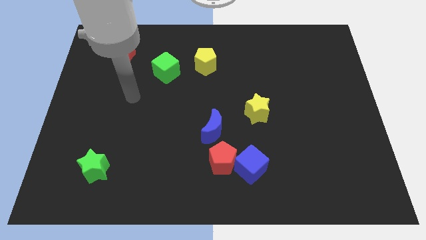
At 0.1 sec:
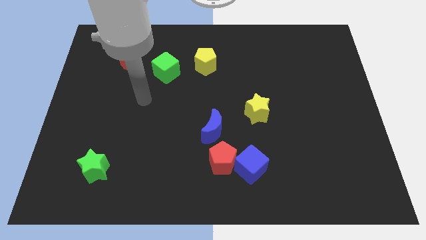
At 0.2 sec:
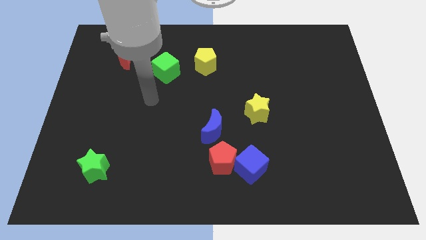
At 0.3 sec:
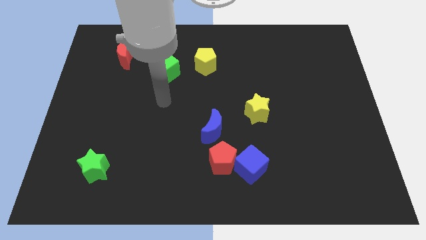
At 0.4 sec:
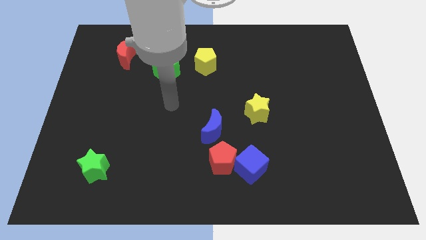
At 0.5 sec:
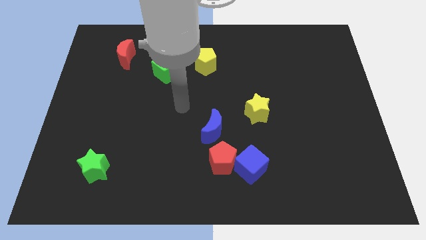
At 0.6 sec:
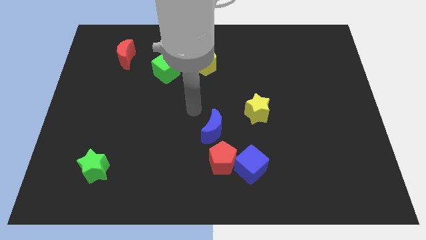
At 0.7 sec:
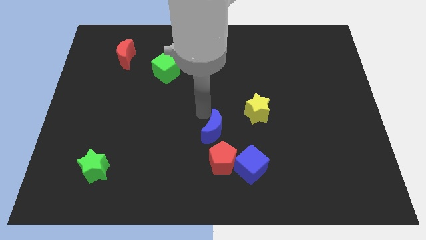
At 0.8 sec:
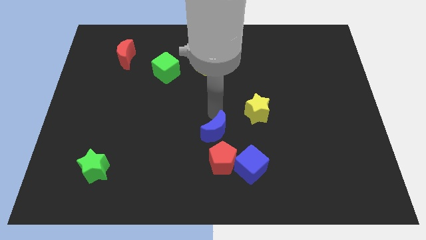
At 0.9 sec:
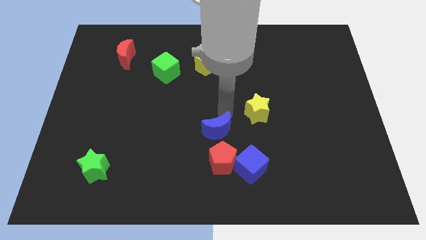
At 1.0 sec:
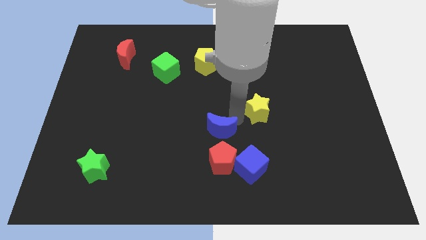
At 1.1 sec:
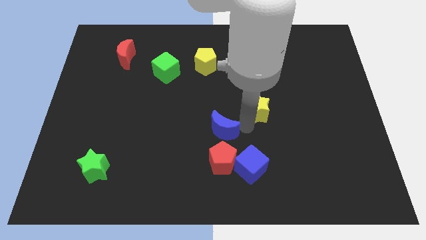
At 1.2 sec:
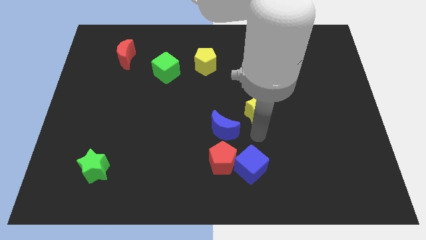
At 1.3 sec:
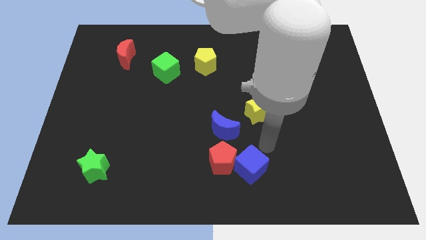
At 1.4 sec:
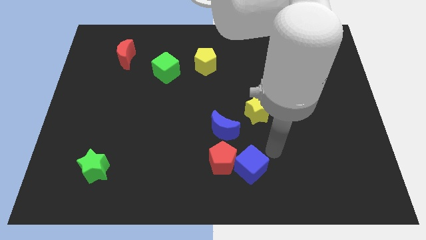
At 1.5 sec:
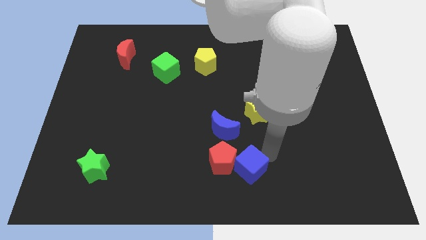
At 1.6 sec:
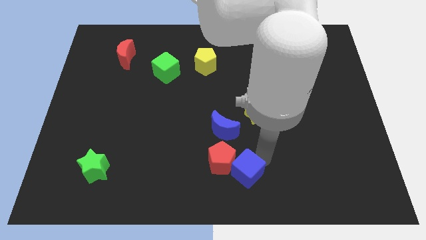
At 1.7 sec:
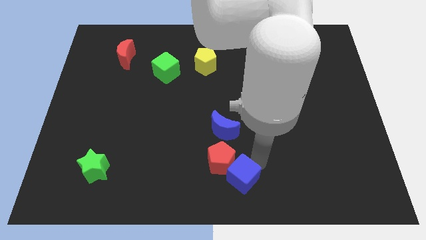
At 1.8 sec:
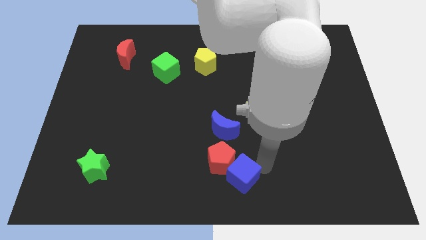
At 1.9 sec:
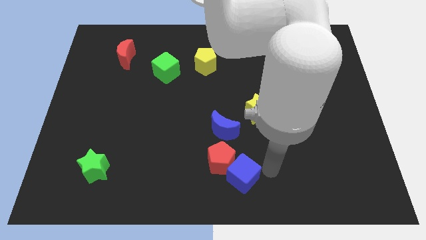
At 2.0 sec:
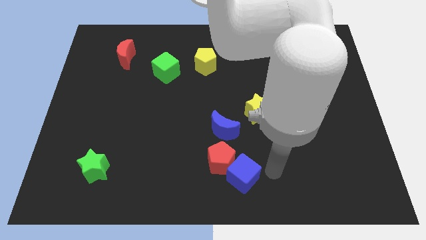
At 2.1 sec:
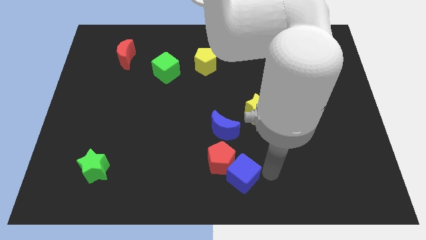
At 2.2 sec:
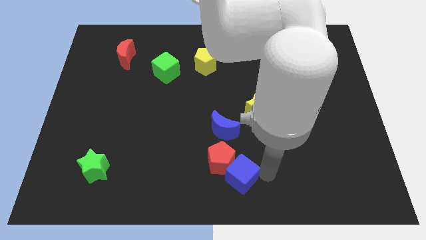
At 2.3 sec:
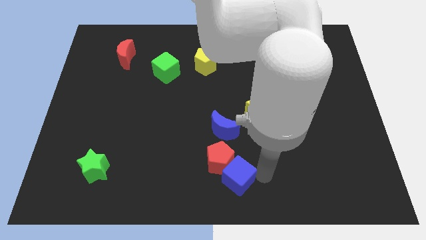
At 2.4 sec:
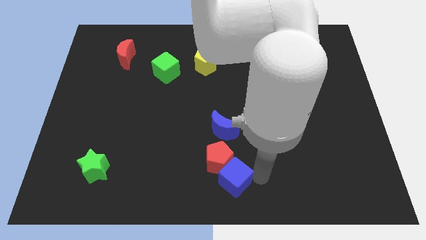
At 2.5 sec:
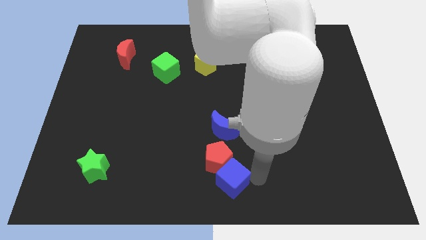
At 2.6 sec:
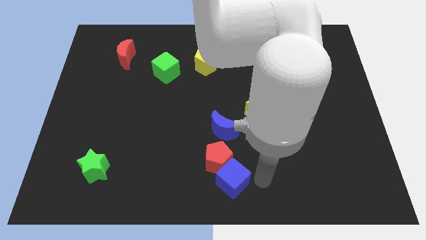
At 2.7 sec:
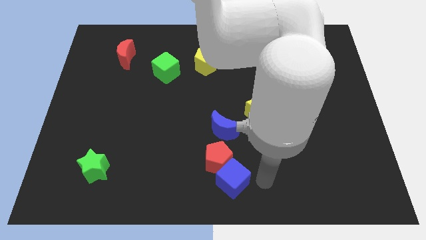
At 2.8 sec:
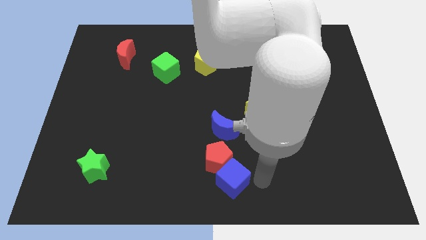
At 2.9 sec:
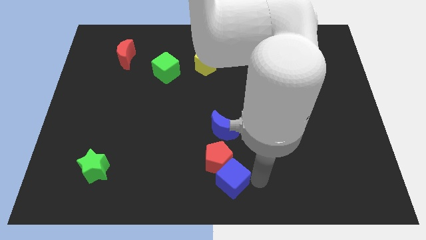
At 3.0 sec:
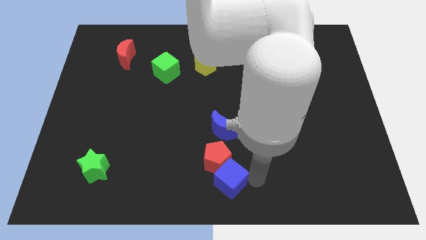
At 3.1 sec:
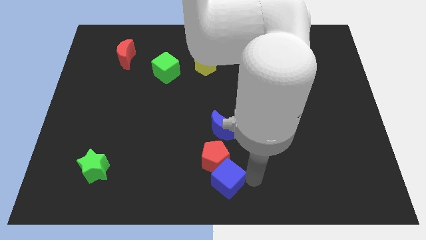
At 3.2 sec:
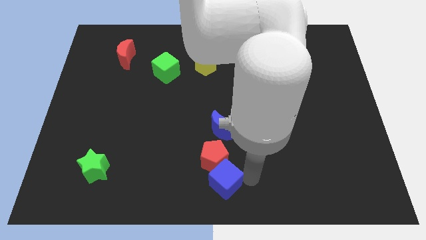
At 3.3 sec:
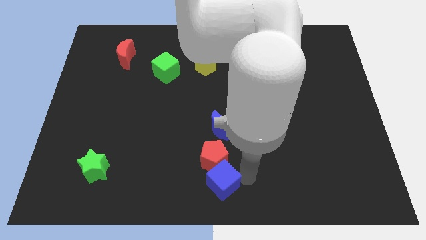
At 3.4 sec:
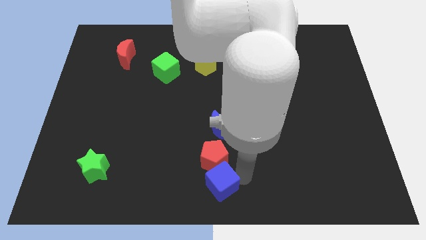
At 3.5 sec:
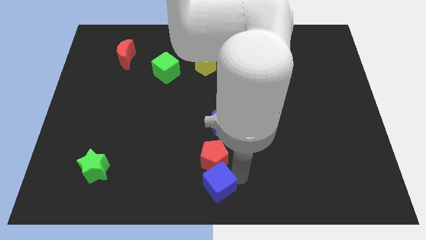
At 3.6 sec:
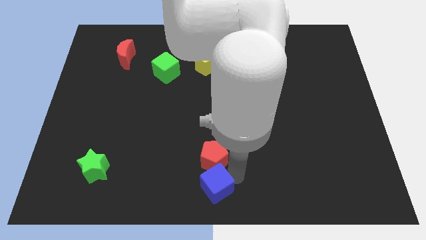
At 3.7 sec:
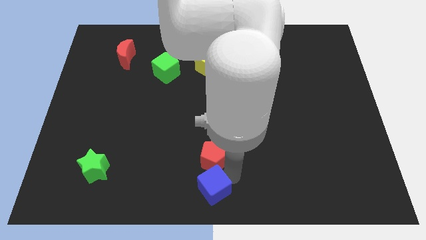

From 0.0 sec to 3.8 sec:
slightly slide the blue cube to the left

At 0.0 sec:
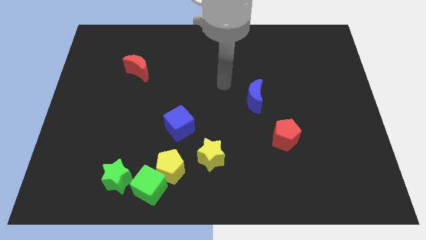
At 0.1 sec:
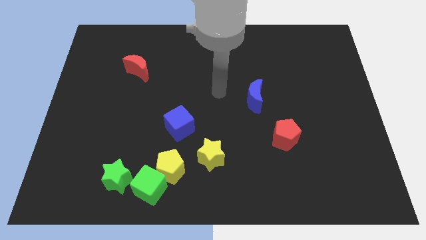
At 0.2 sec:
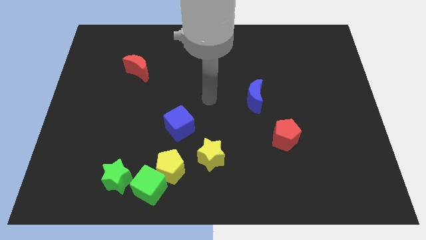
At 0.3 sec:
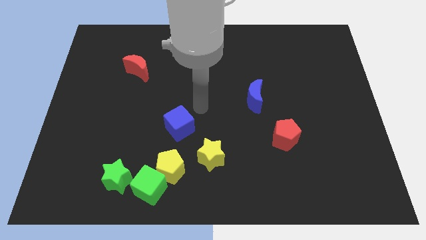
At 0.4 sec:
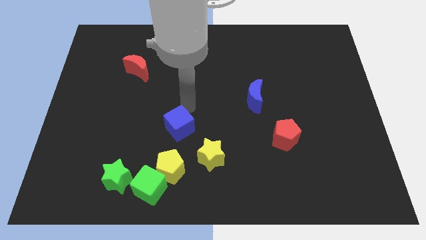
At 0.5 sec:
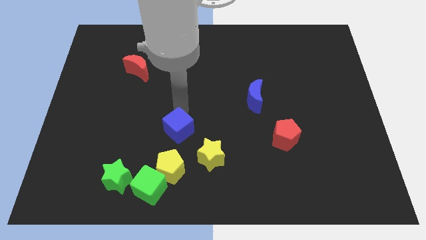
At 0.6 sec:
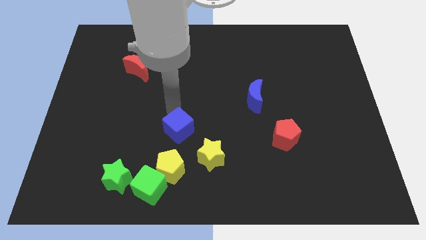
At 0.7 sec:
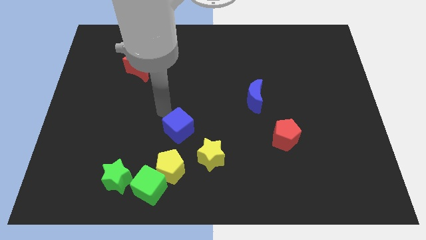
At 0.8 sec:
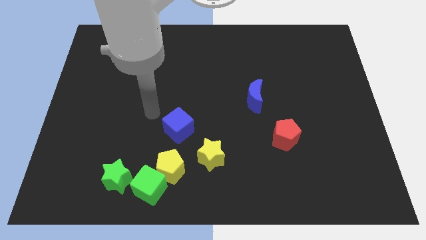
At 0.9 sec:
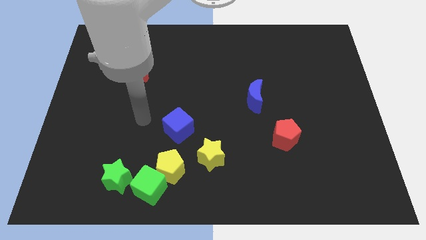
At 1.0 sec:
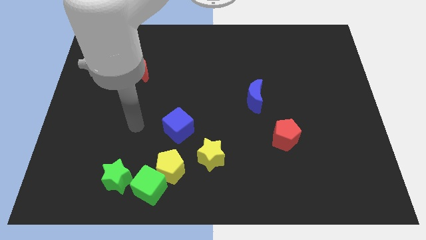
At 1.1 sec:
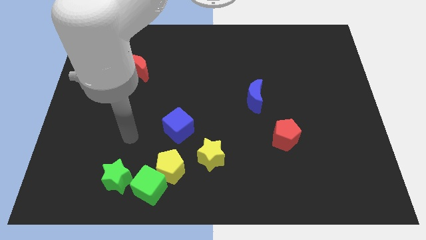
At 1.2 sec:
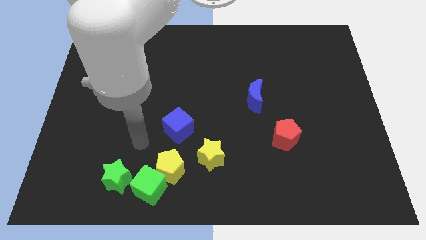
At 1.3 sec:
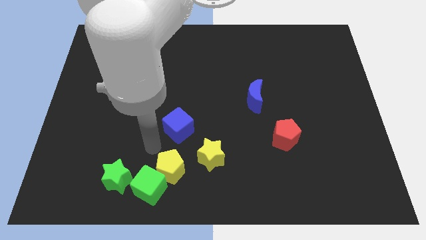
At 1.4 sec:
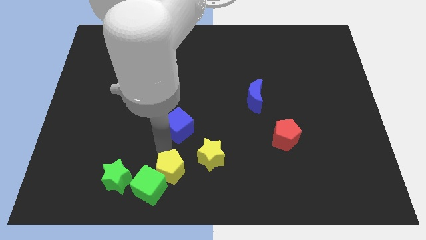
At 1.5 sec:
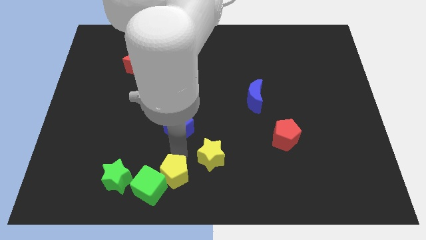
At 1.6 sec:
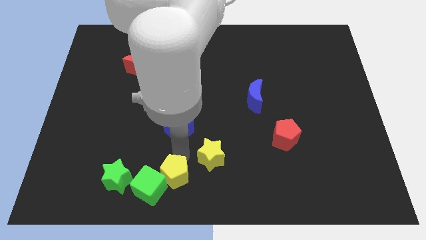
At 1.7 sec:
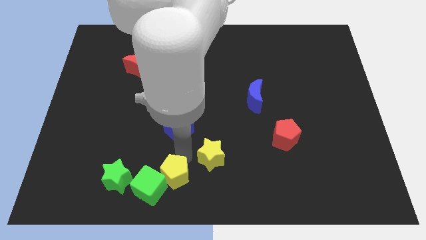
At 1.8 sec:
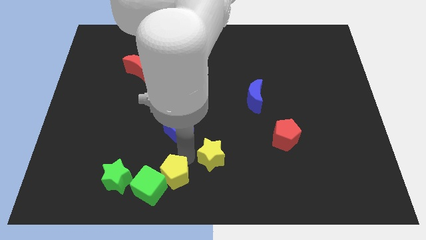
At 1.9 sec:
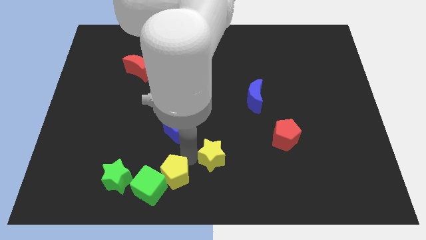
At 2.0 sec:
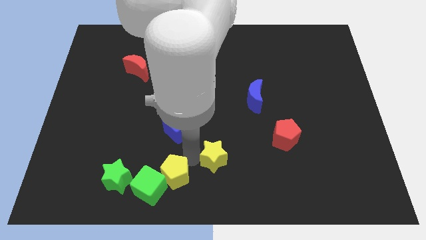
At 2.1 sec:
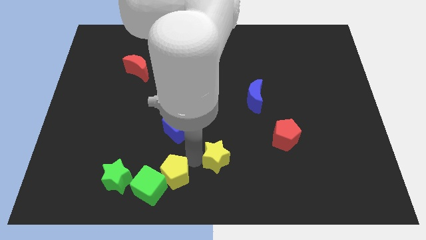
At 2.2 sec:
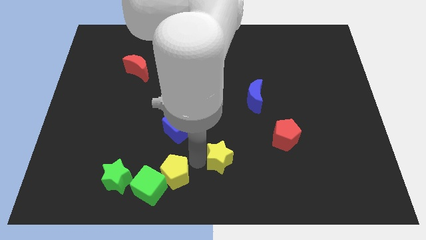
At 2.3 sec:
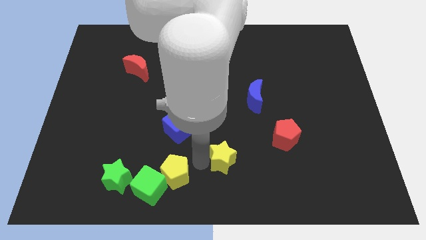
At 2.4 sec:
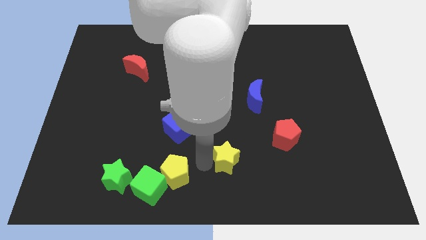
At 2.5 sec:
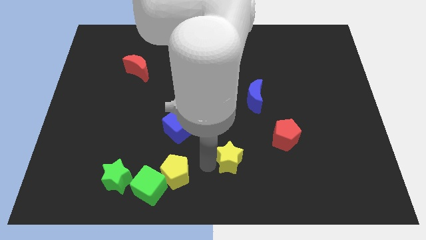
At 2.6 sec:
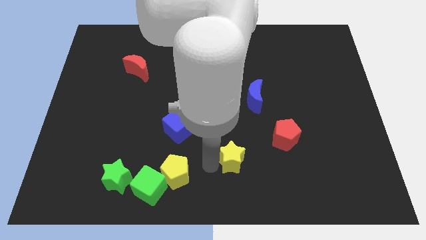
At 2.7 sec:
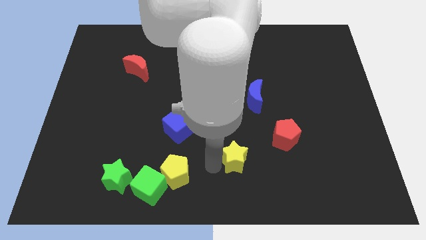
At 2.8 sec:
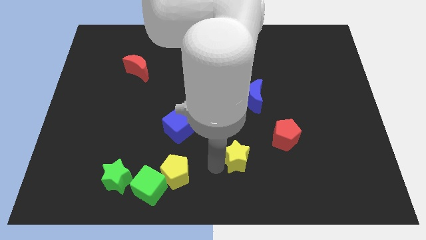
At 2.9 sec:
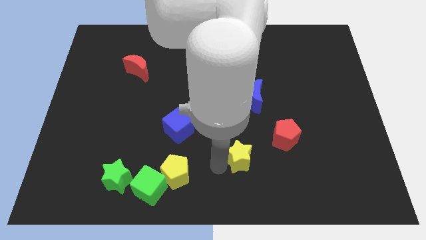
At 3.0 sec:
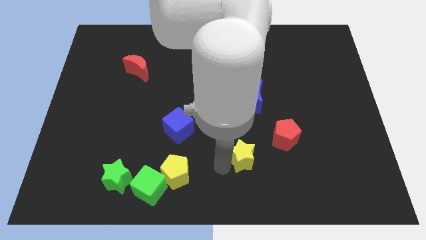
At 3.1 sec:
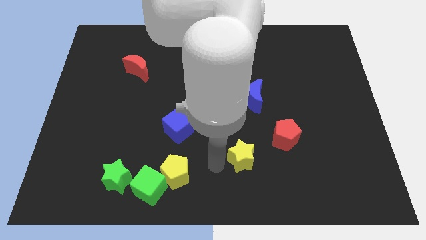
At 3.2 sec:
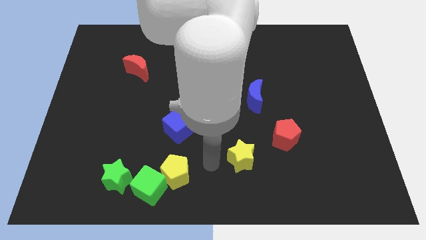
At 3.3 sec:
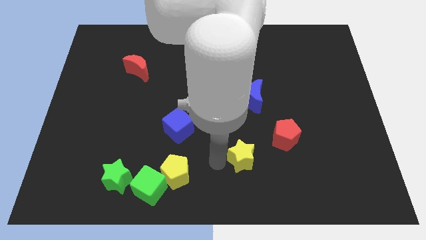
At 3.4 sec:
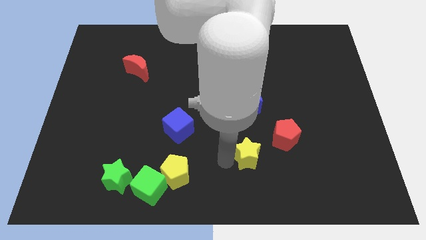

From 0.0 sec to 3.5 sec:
push the yellow star a little to the right

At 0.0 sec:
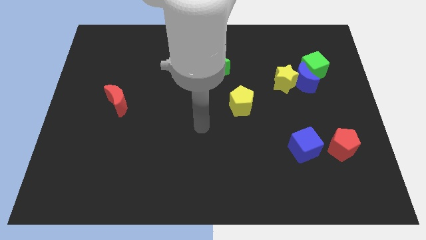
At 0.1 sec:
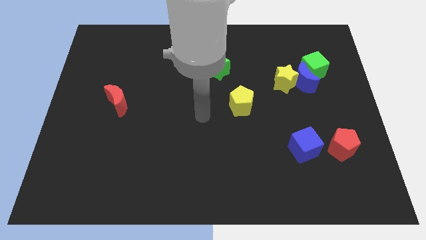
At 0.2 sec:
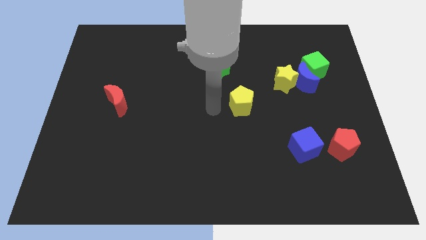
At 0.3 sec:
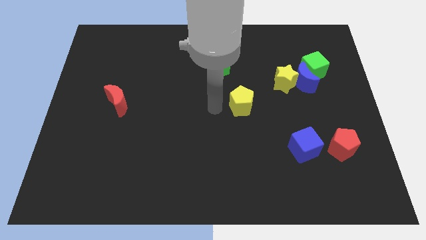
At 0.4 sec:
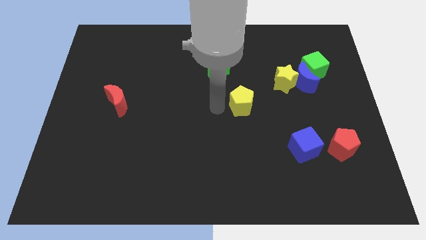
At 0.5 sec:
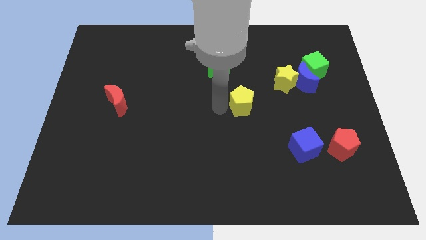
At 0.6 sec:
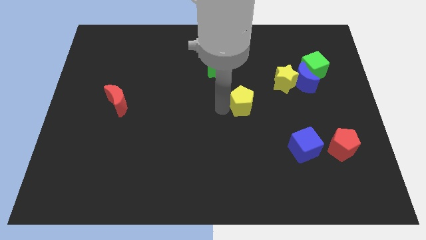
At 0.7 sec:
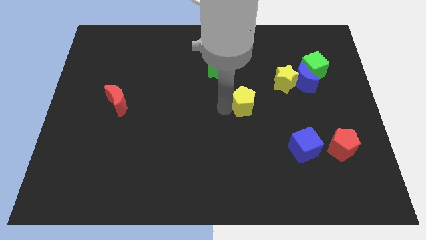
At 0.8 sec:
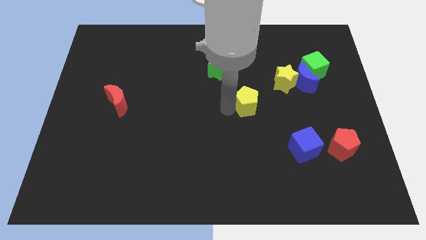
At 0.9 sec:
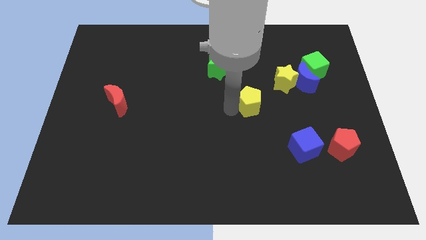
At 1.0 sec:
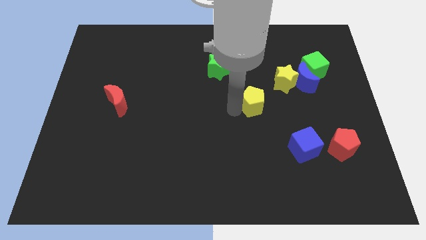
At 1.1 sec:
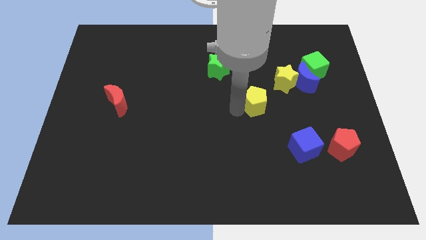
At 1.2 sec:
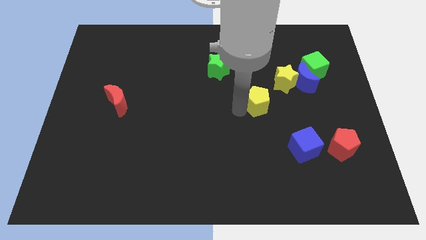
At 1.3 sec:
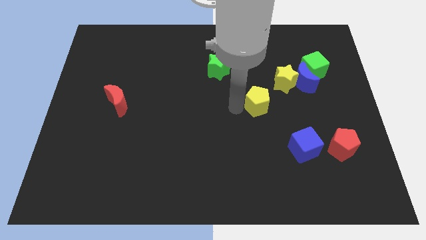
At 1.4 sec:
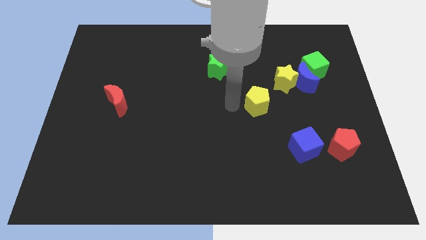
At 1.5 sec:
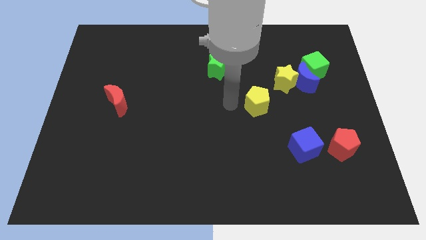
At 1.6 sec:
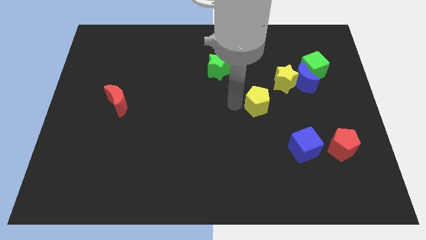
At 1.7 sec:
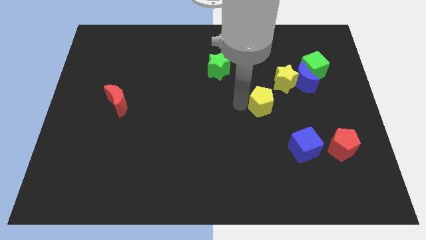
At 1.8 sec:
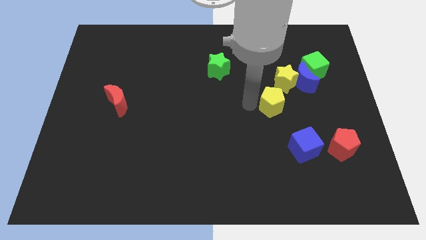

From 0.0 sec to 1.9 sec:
slide the yellow pentagon somewhat right
